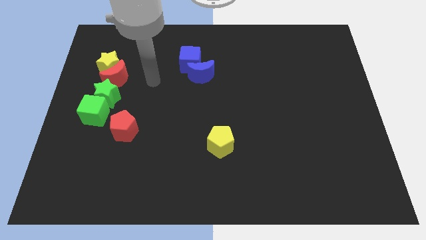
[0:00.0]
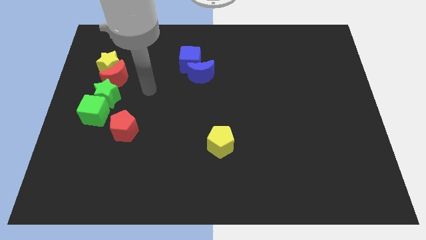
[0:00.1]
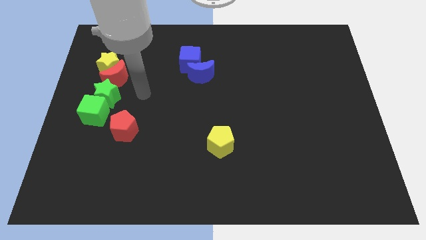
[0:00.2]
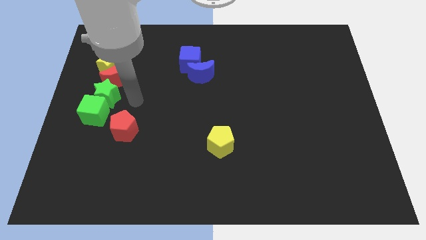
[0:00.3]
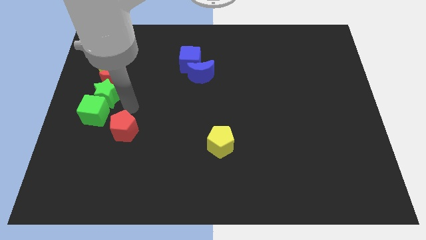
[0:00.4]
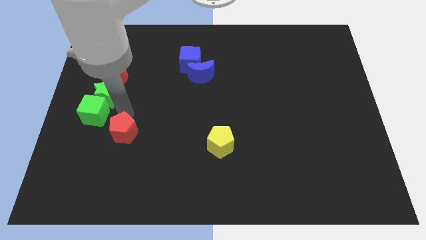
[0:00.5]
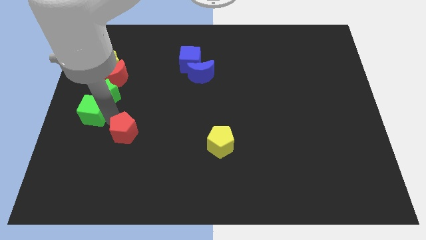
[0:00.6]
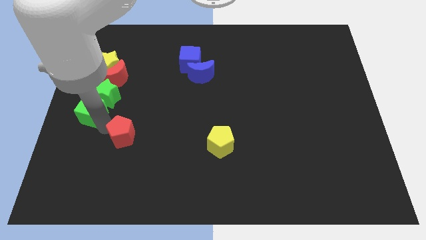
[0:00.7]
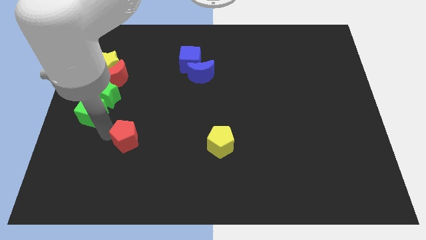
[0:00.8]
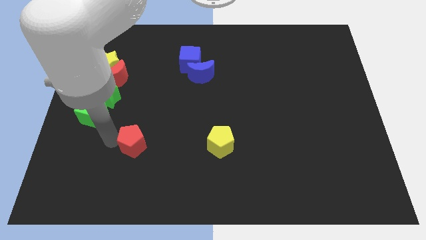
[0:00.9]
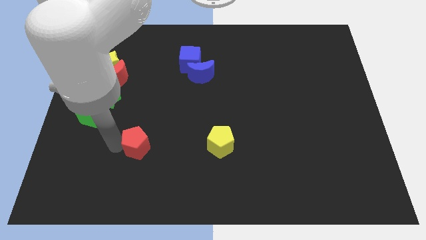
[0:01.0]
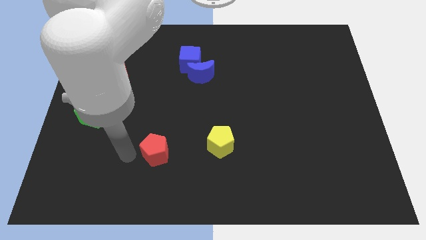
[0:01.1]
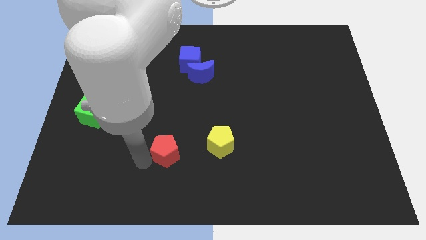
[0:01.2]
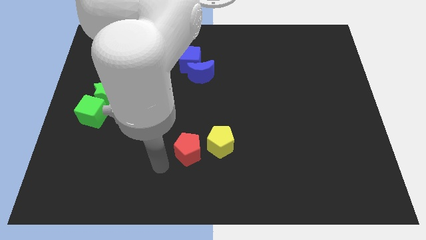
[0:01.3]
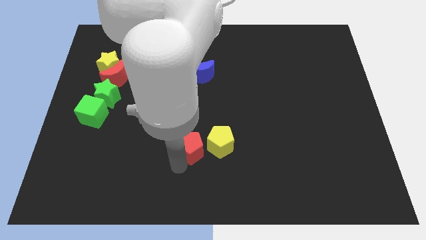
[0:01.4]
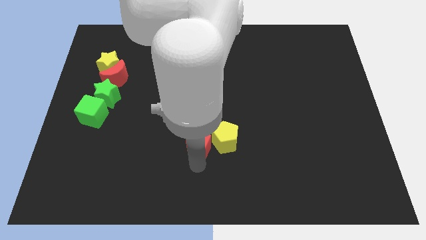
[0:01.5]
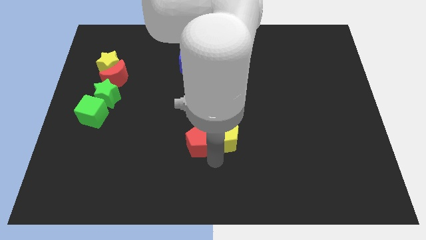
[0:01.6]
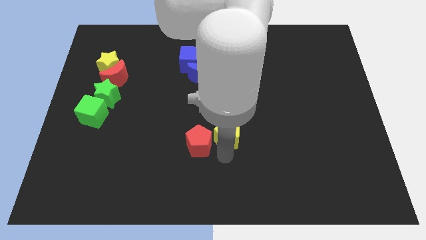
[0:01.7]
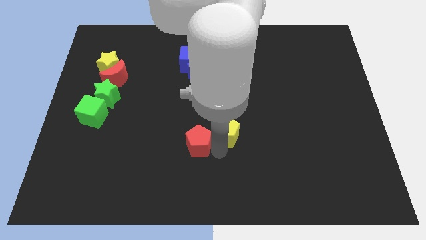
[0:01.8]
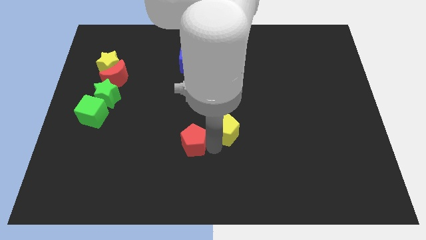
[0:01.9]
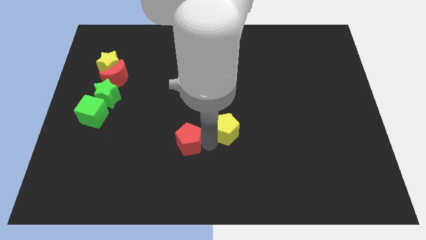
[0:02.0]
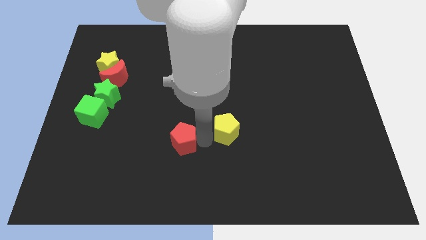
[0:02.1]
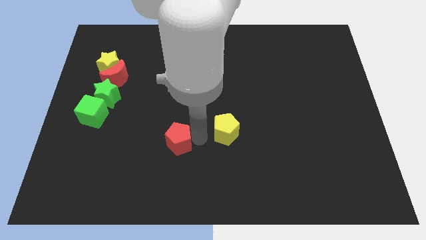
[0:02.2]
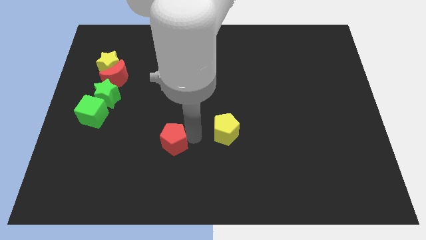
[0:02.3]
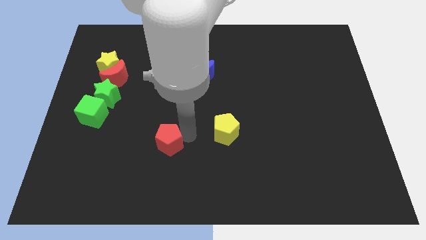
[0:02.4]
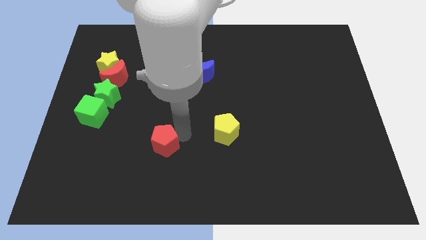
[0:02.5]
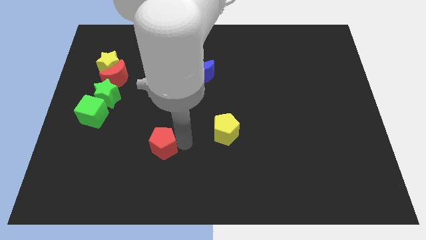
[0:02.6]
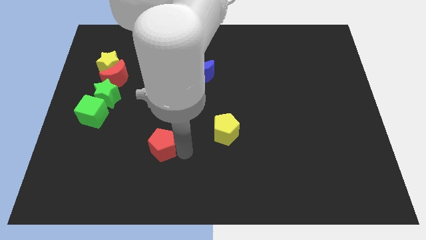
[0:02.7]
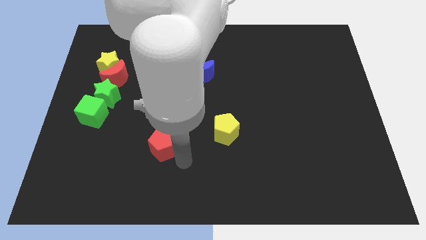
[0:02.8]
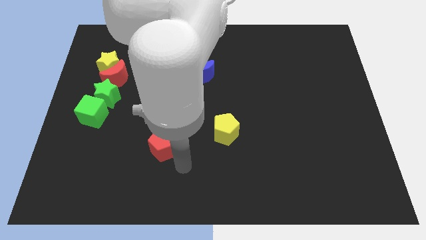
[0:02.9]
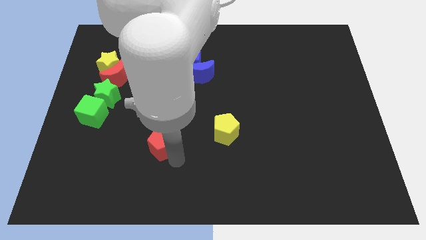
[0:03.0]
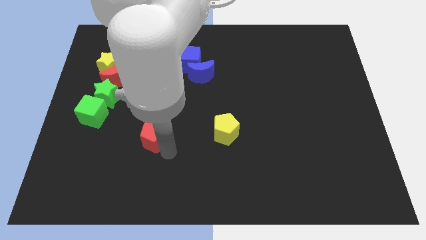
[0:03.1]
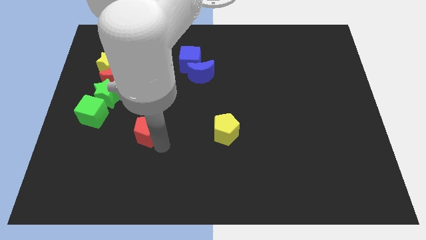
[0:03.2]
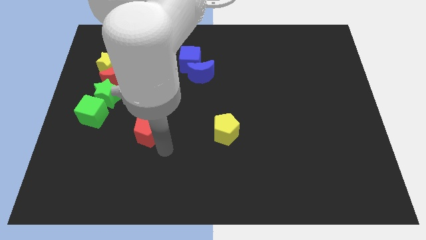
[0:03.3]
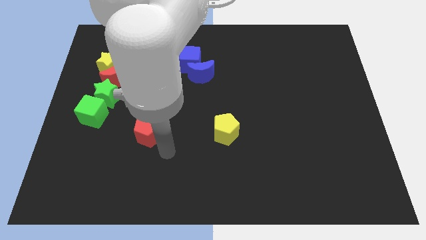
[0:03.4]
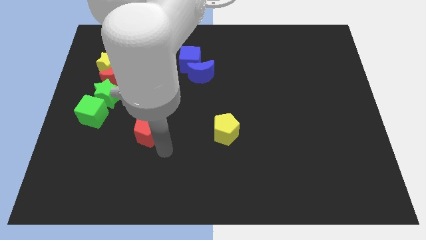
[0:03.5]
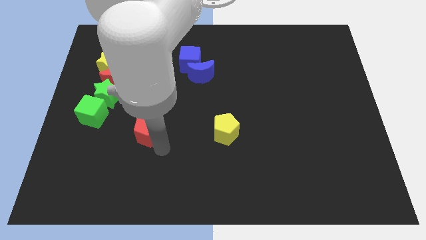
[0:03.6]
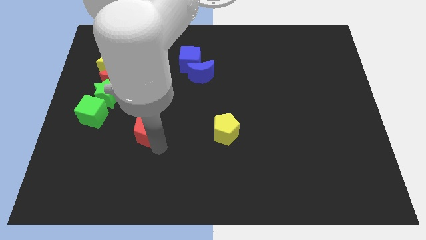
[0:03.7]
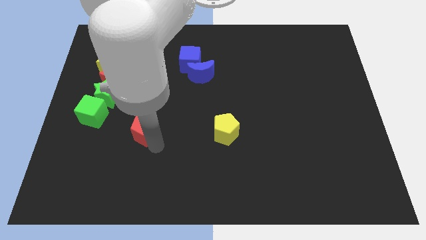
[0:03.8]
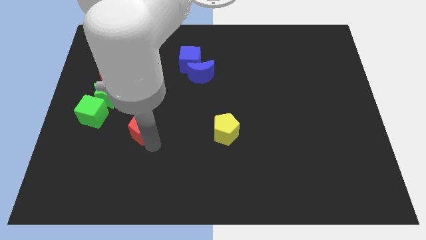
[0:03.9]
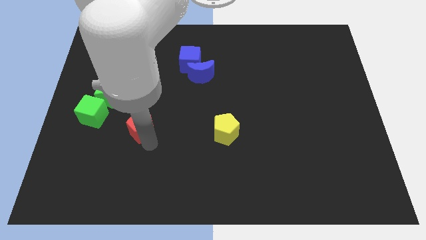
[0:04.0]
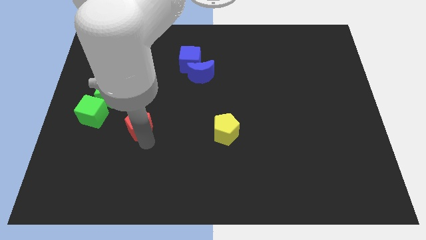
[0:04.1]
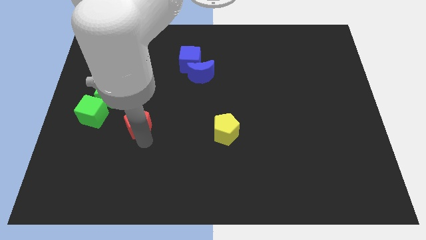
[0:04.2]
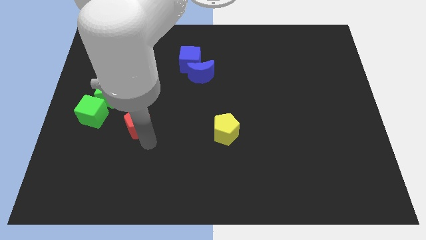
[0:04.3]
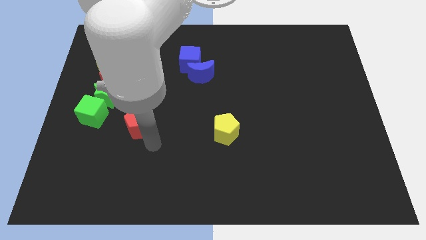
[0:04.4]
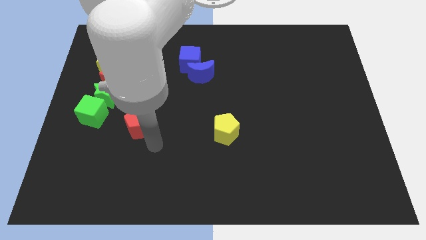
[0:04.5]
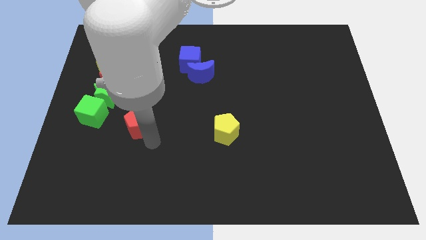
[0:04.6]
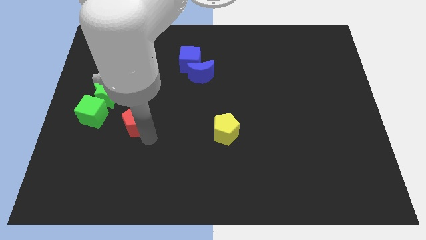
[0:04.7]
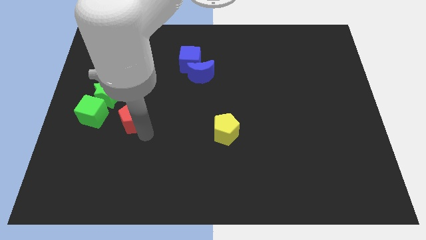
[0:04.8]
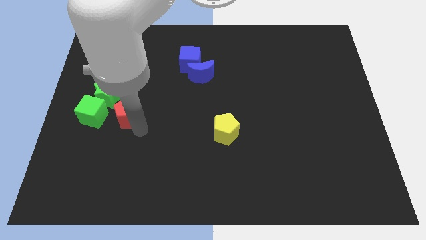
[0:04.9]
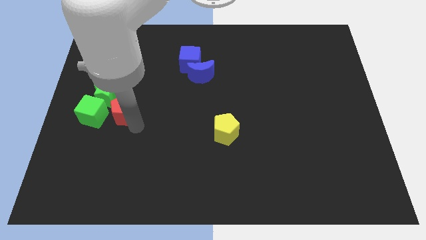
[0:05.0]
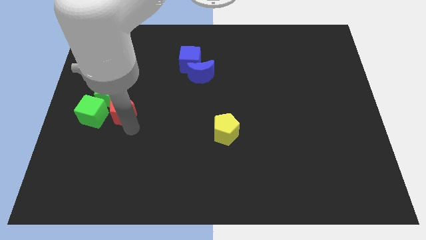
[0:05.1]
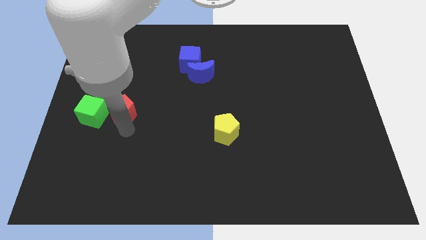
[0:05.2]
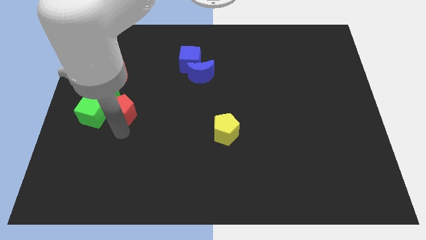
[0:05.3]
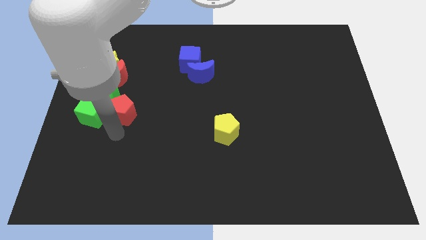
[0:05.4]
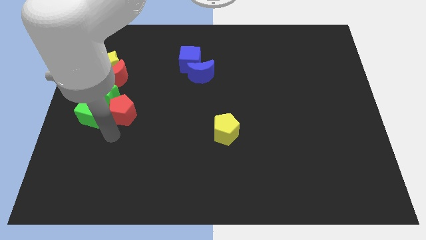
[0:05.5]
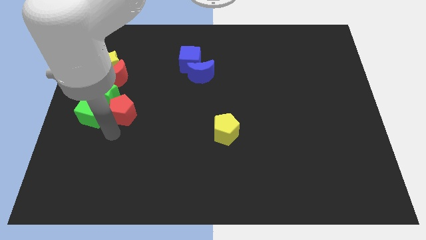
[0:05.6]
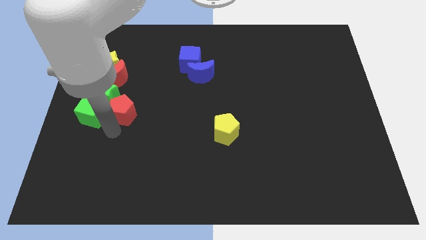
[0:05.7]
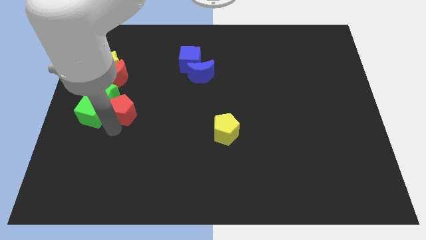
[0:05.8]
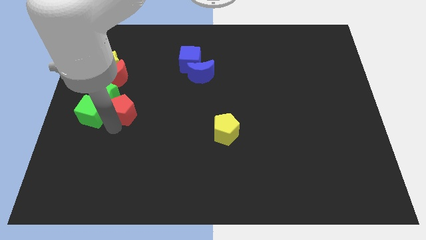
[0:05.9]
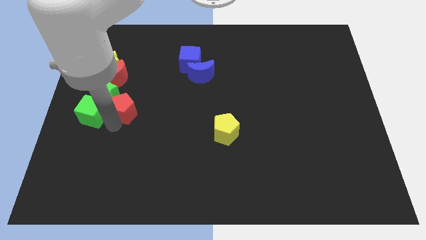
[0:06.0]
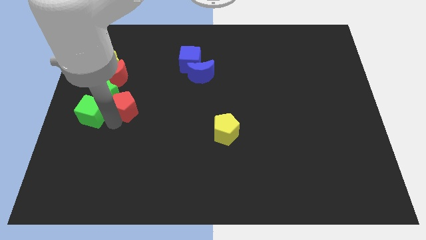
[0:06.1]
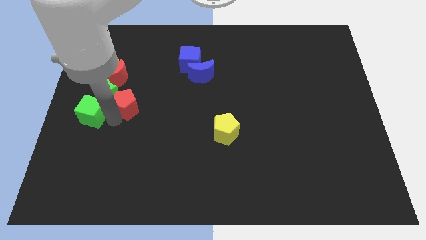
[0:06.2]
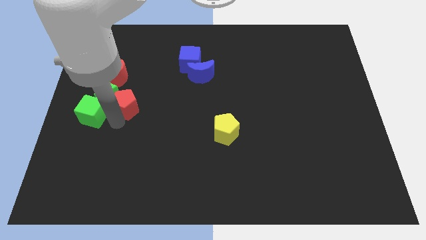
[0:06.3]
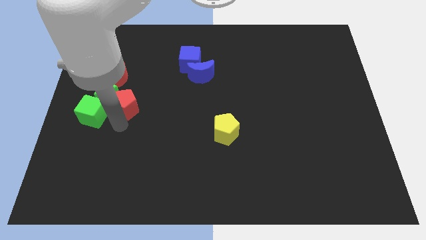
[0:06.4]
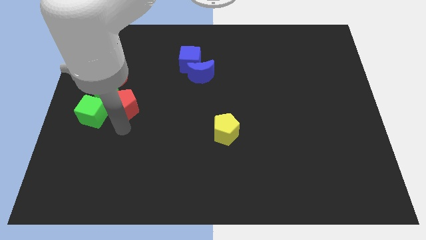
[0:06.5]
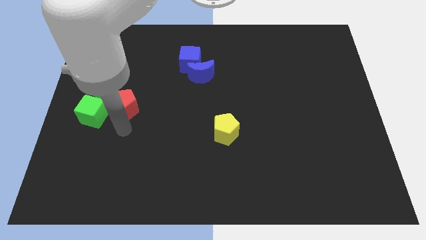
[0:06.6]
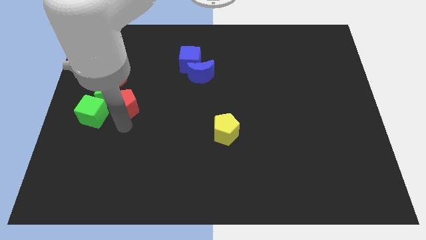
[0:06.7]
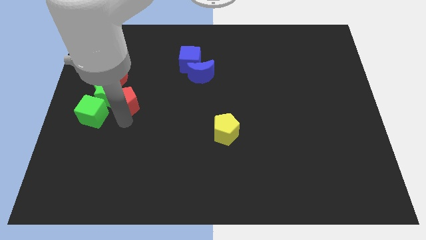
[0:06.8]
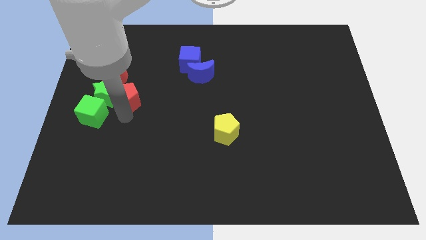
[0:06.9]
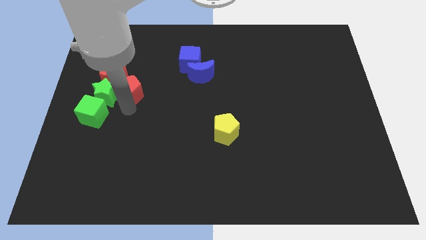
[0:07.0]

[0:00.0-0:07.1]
slide the red pentagon next to the red moon

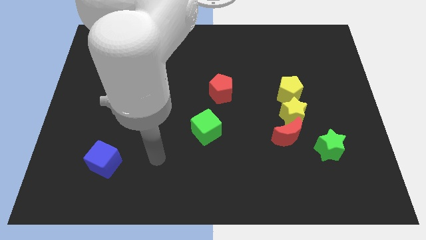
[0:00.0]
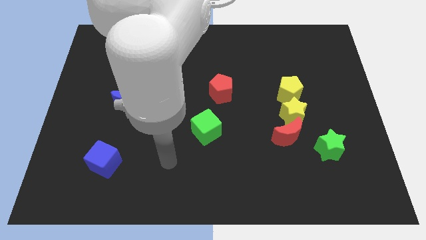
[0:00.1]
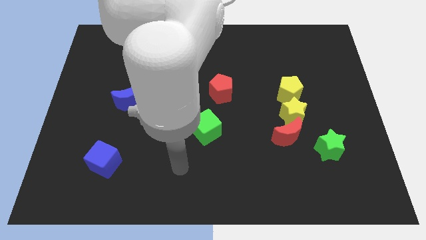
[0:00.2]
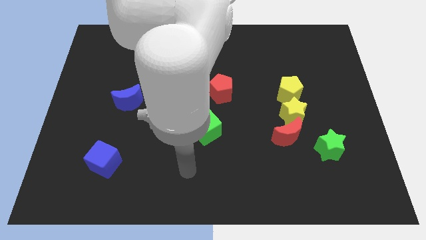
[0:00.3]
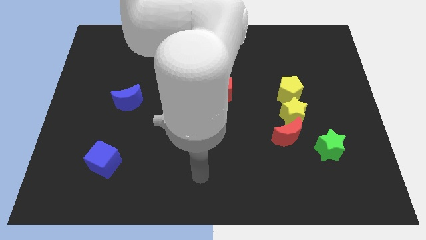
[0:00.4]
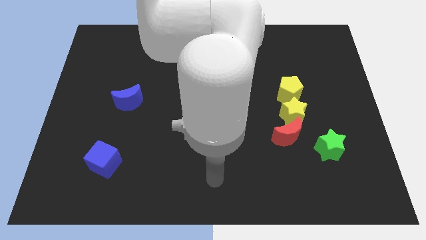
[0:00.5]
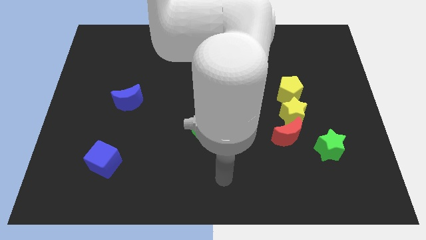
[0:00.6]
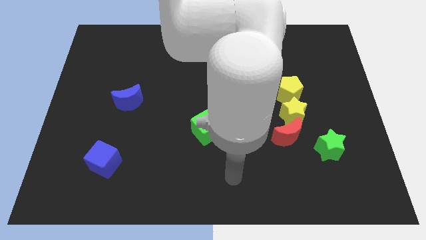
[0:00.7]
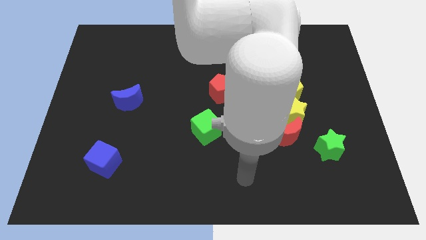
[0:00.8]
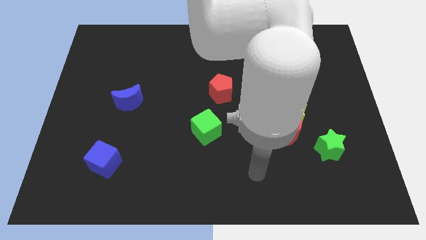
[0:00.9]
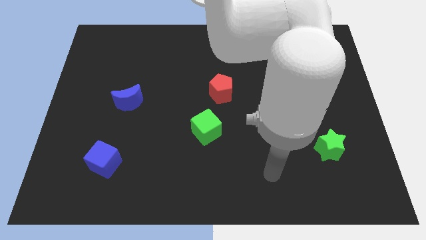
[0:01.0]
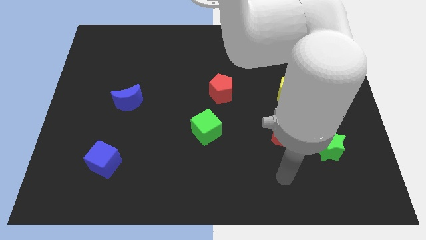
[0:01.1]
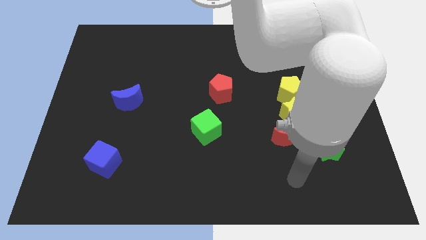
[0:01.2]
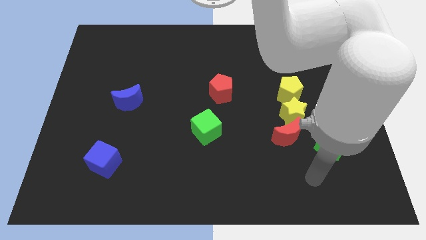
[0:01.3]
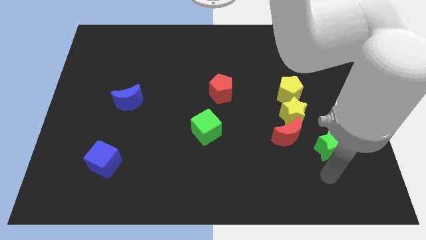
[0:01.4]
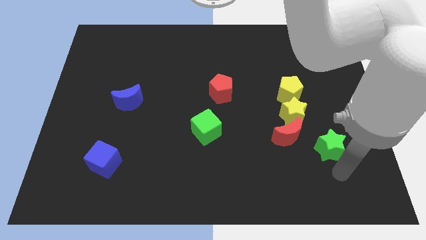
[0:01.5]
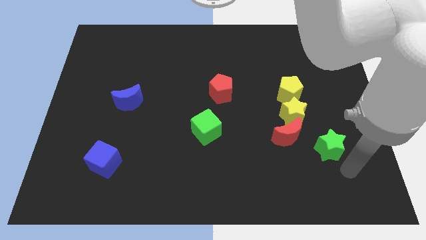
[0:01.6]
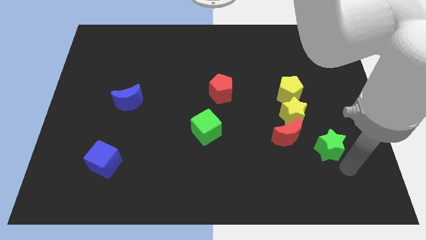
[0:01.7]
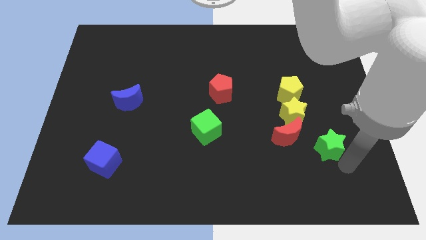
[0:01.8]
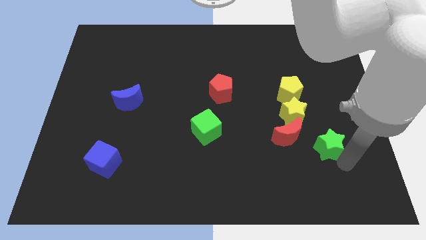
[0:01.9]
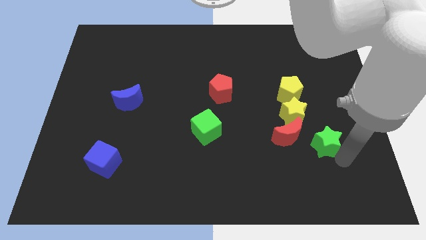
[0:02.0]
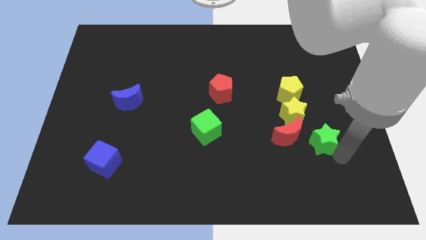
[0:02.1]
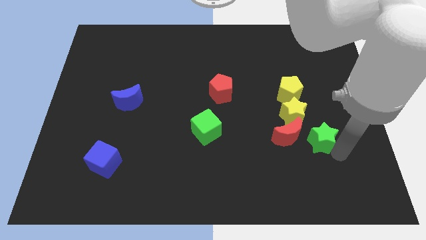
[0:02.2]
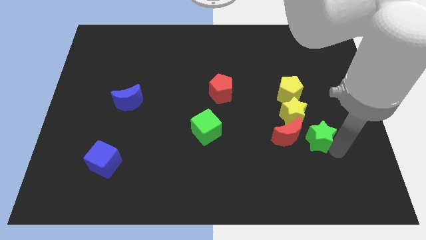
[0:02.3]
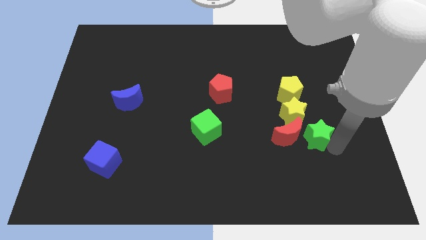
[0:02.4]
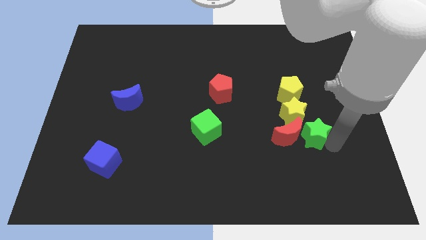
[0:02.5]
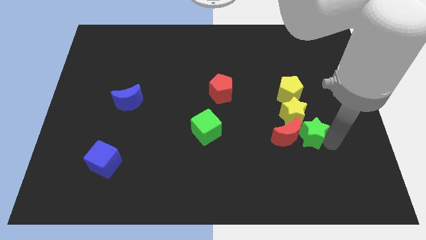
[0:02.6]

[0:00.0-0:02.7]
move the green star towards the yellow star
